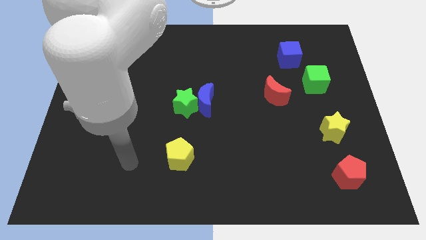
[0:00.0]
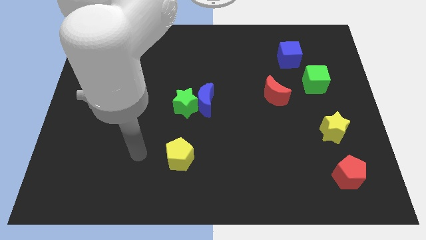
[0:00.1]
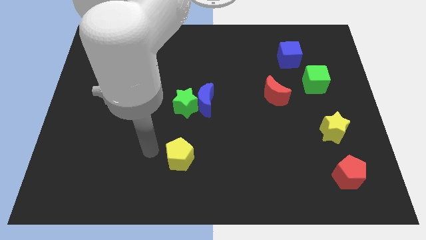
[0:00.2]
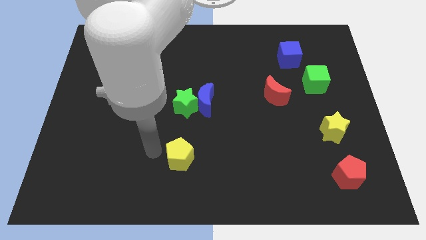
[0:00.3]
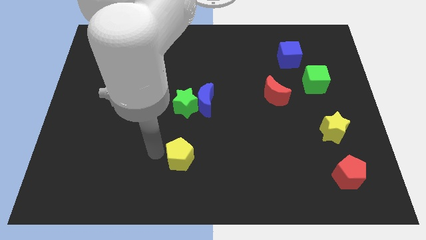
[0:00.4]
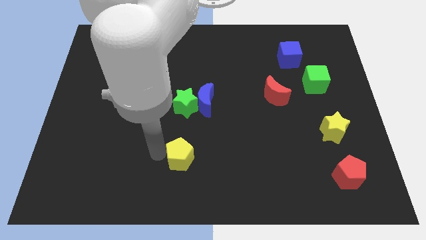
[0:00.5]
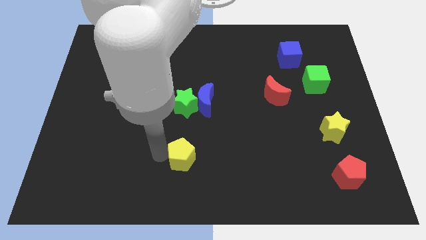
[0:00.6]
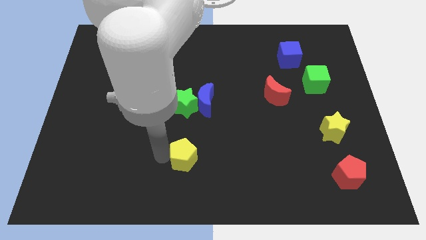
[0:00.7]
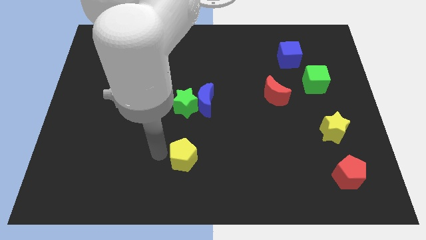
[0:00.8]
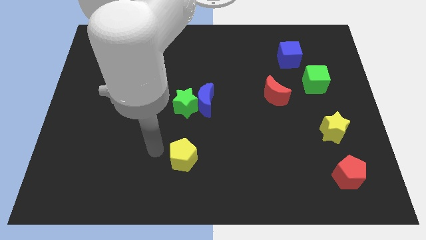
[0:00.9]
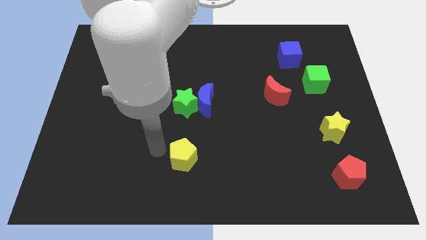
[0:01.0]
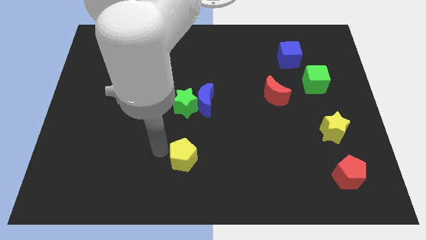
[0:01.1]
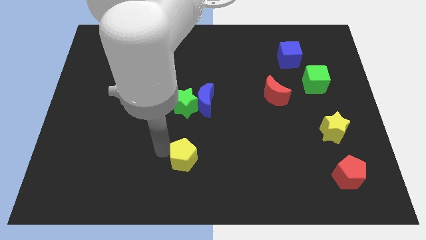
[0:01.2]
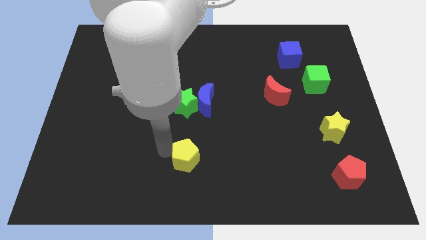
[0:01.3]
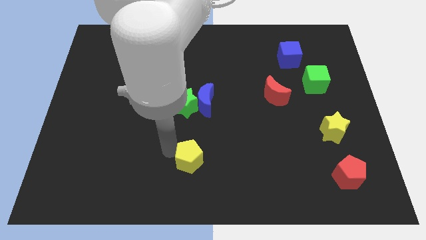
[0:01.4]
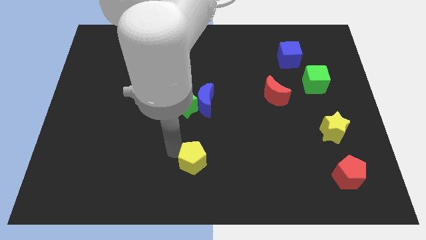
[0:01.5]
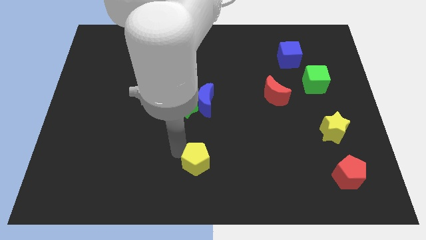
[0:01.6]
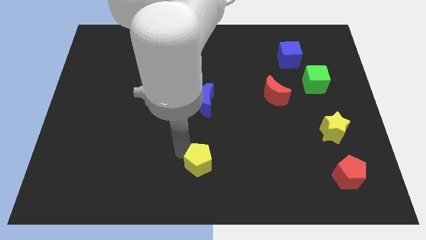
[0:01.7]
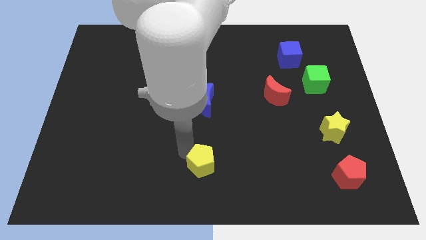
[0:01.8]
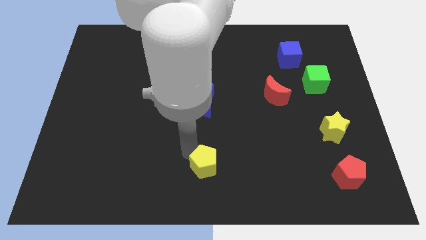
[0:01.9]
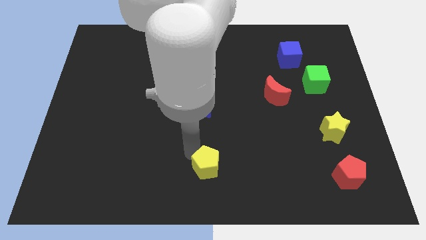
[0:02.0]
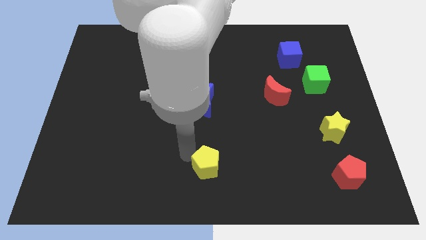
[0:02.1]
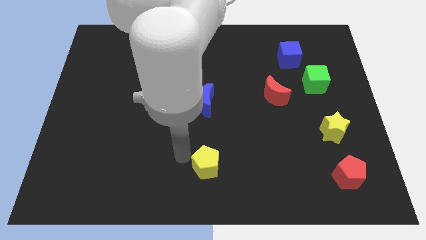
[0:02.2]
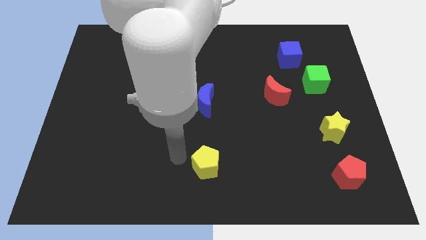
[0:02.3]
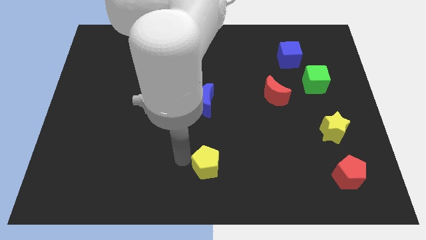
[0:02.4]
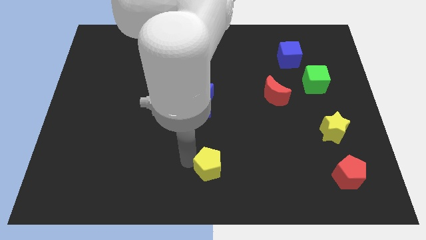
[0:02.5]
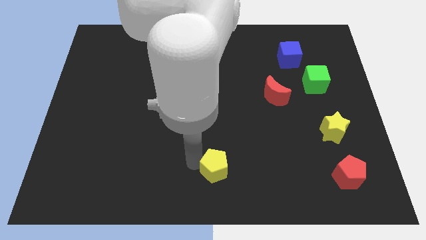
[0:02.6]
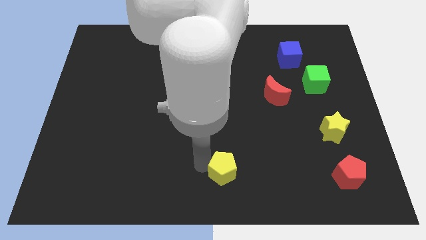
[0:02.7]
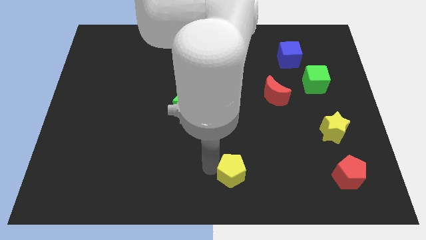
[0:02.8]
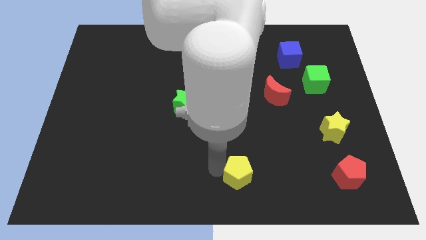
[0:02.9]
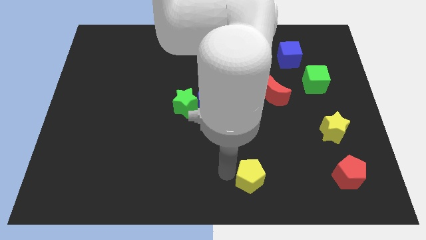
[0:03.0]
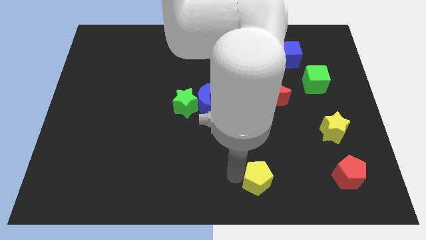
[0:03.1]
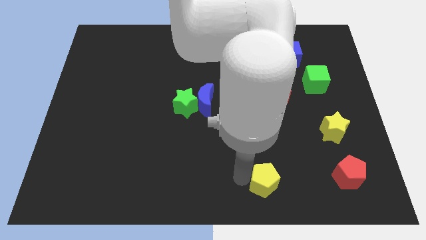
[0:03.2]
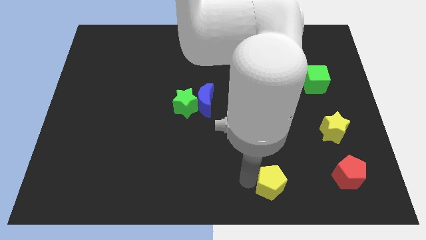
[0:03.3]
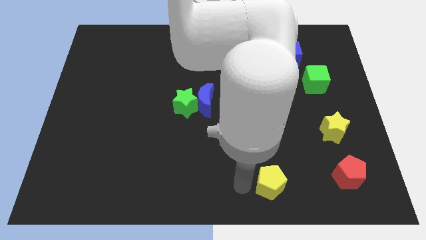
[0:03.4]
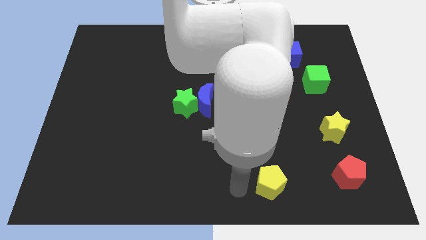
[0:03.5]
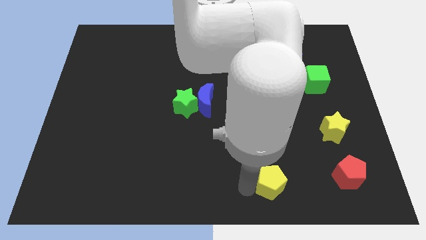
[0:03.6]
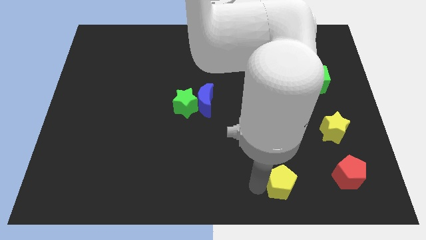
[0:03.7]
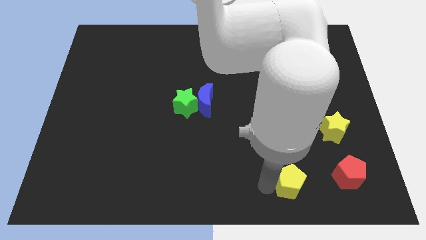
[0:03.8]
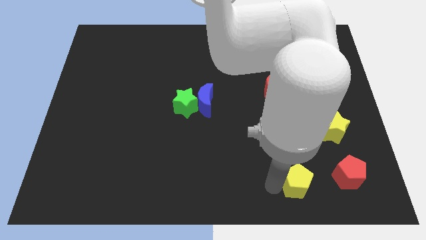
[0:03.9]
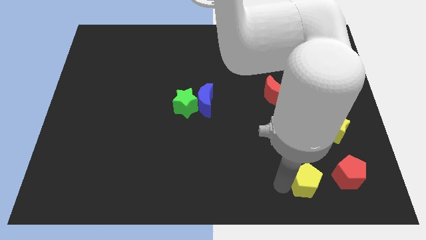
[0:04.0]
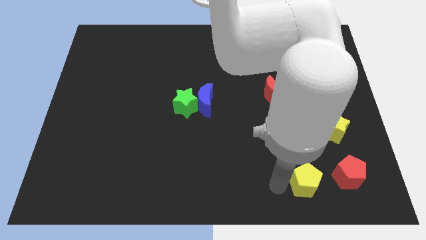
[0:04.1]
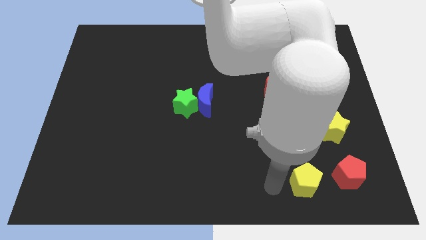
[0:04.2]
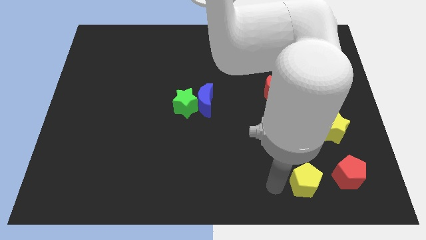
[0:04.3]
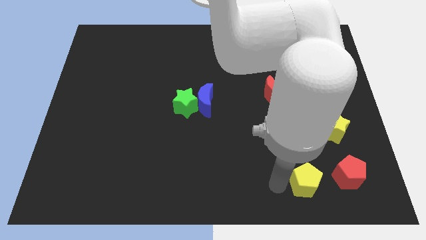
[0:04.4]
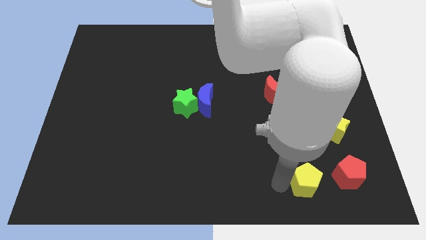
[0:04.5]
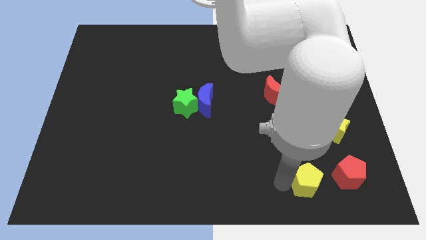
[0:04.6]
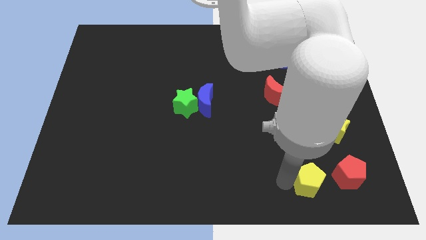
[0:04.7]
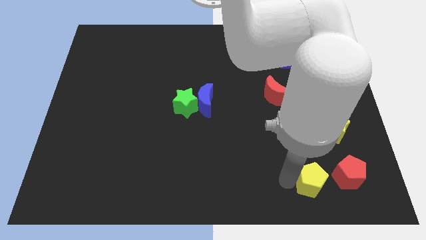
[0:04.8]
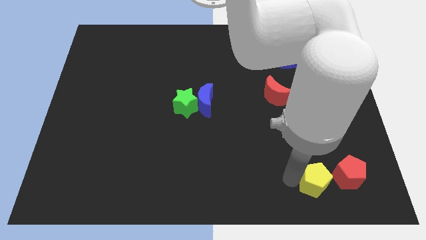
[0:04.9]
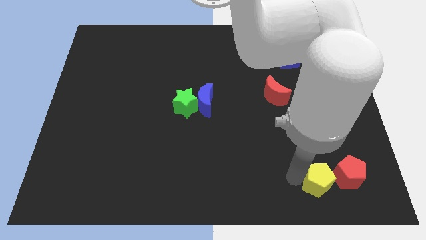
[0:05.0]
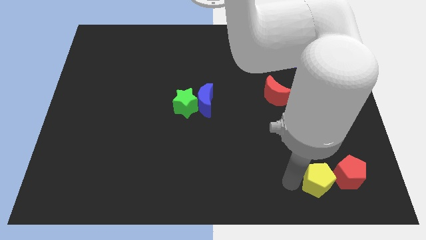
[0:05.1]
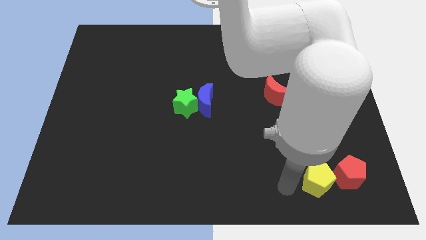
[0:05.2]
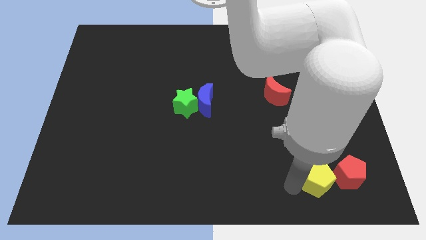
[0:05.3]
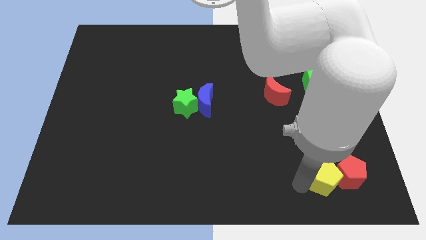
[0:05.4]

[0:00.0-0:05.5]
move the yellow pentagon towards the red pentagon
